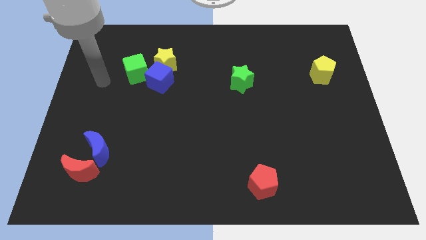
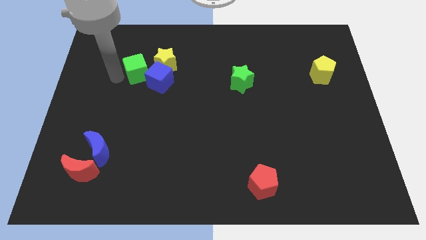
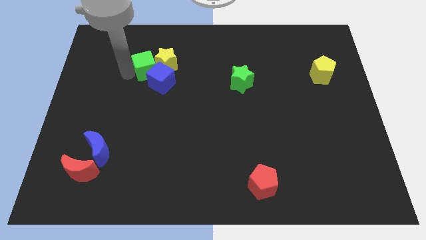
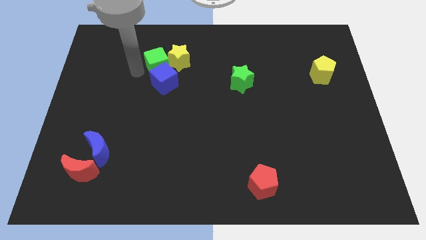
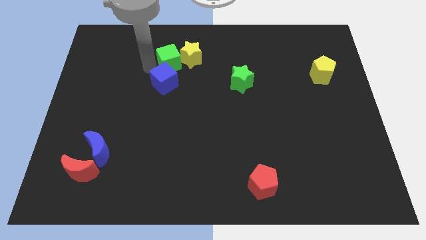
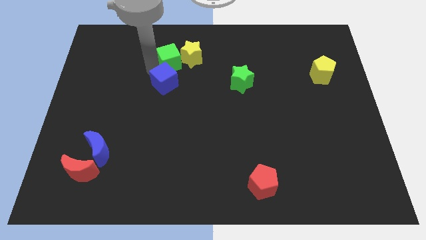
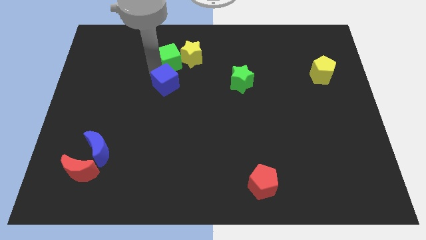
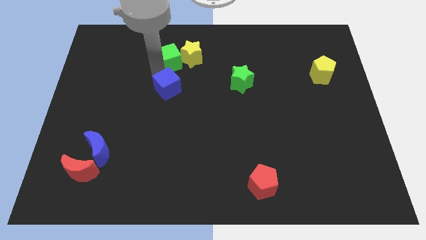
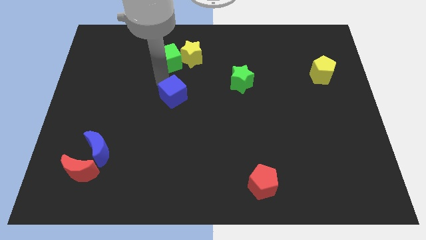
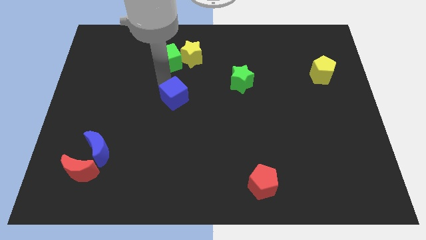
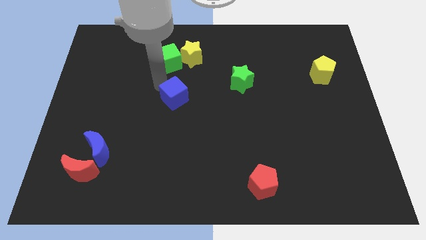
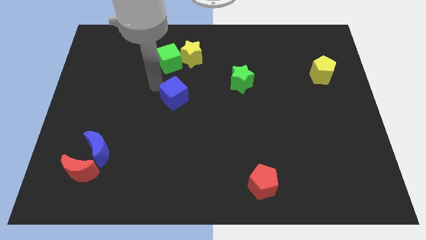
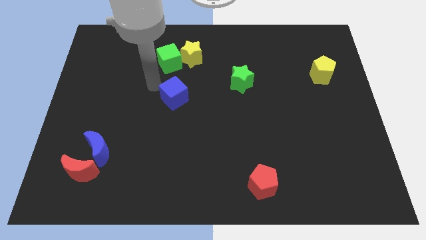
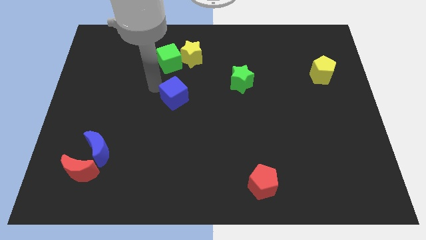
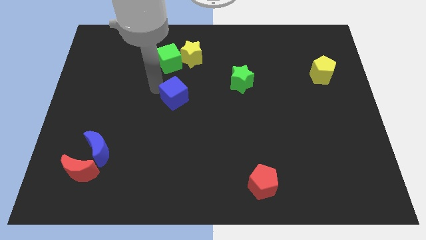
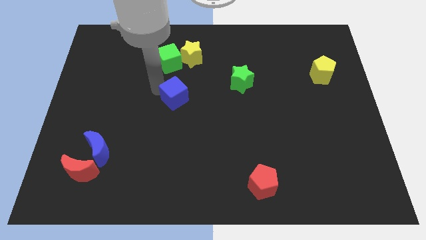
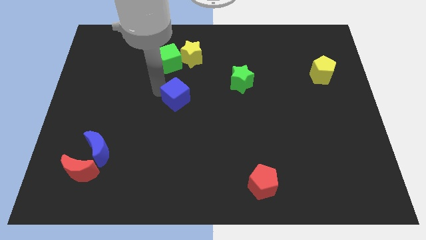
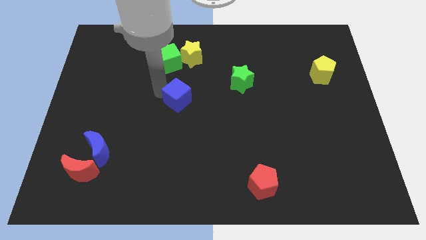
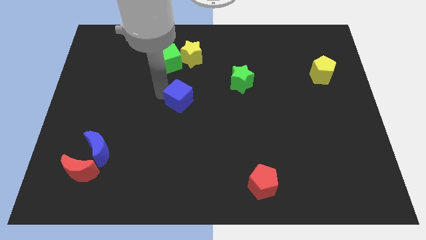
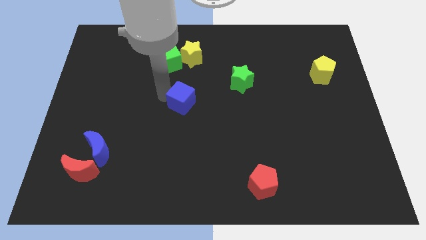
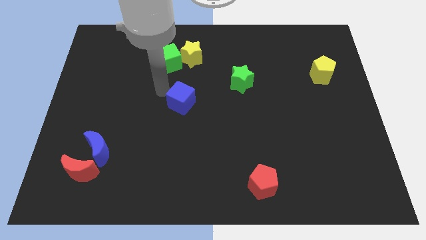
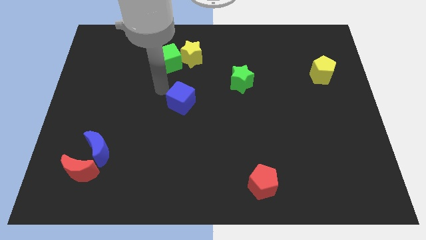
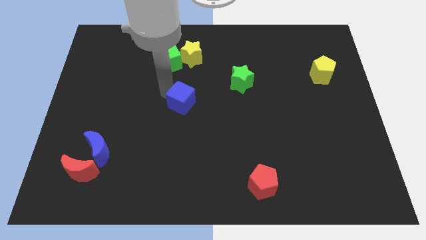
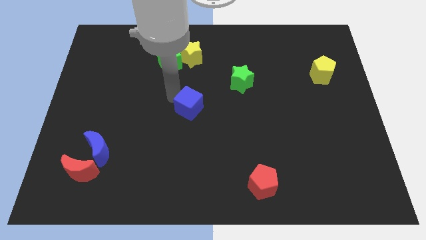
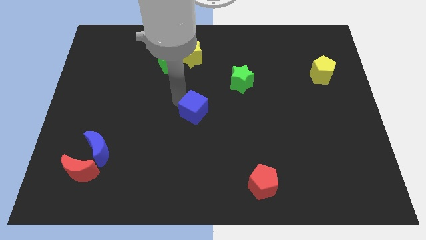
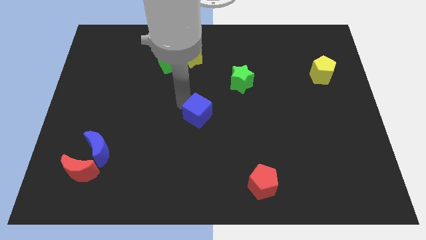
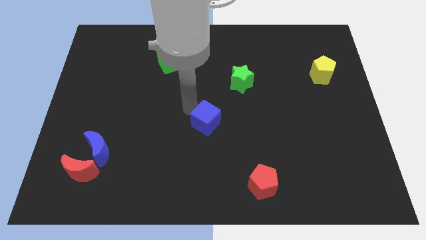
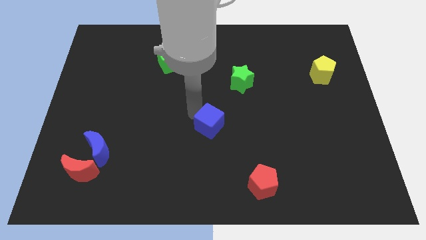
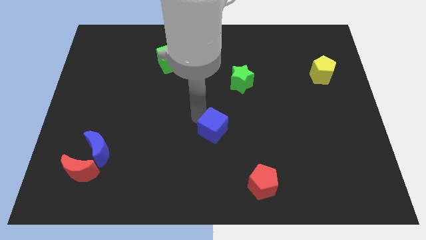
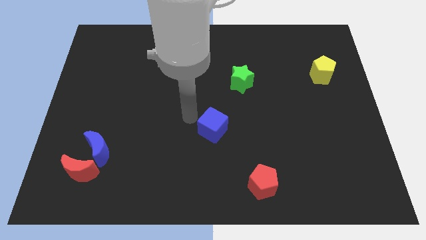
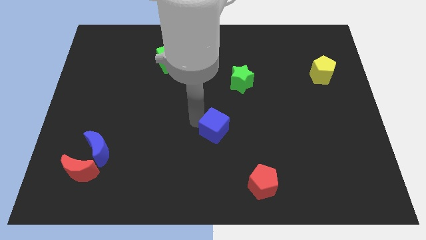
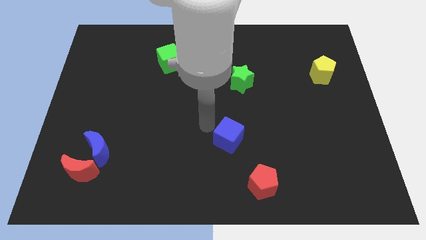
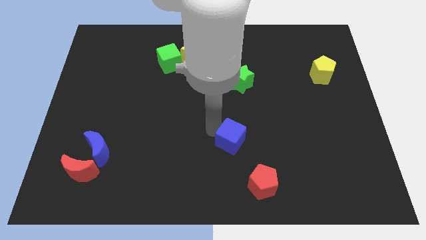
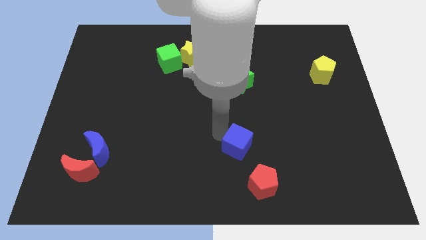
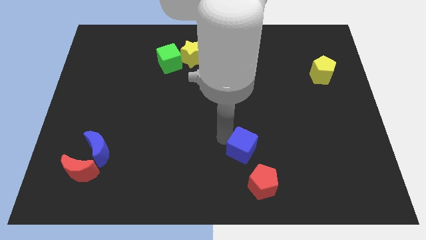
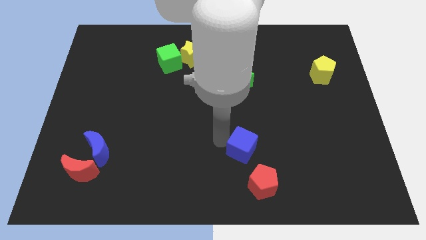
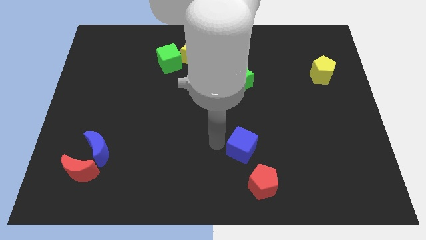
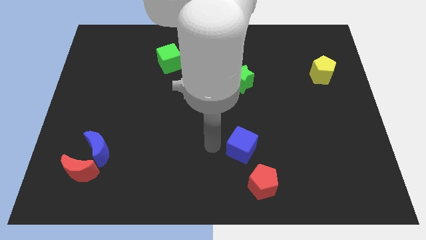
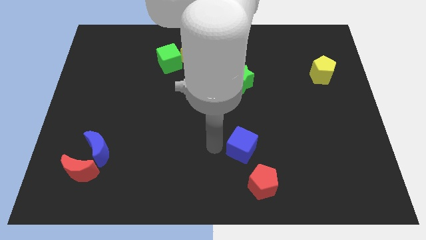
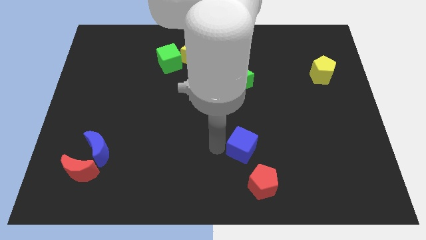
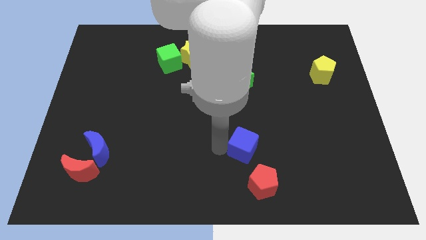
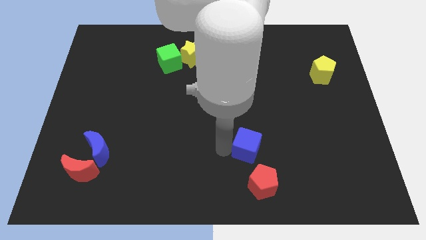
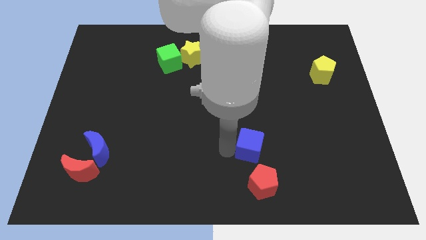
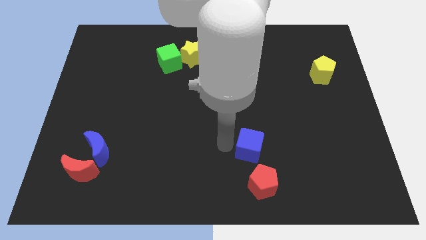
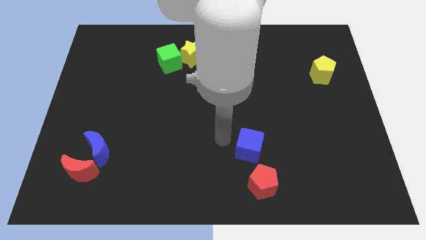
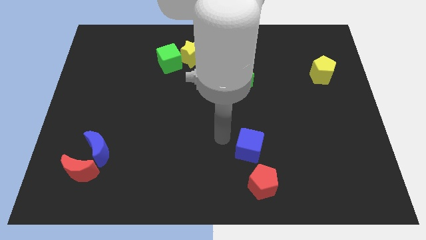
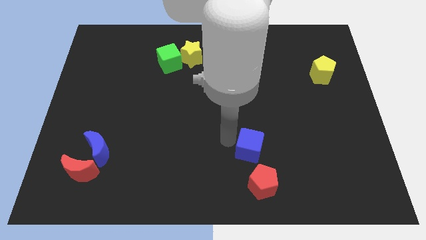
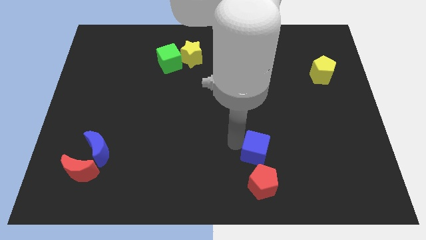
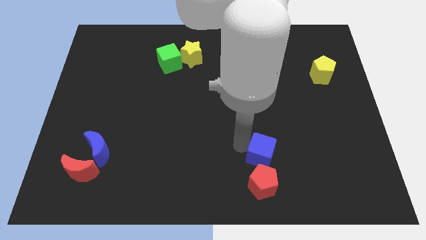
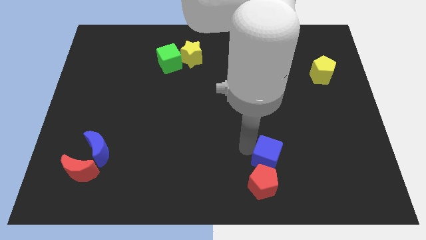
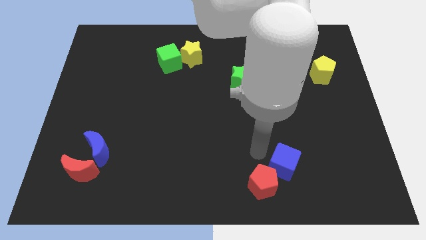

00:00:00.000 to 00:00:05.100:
push the blue cube to the right side of the red pentagon

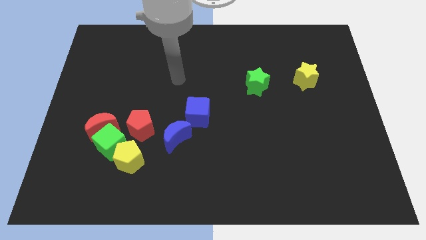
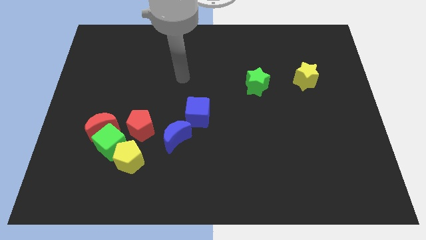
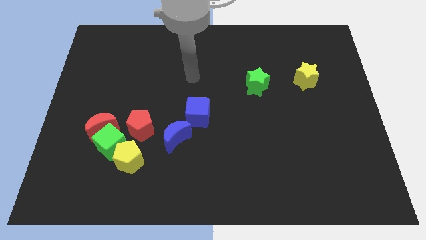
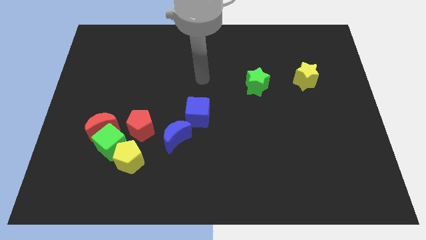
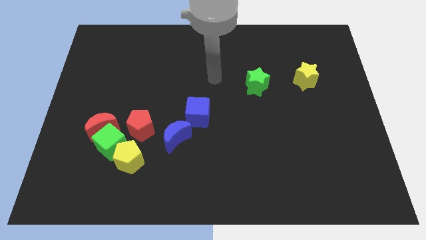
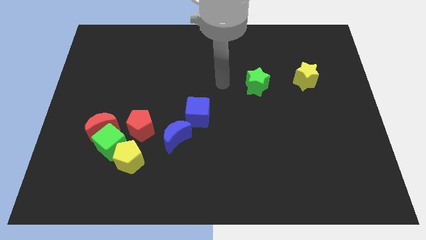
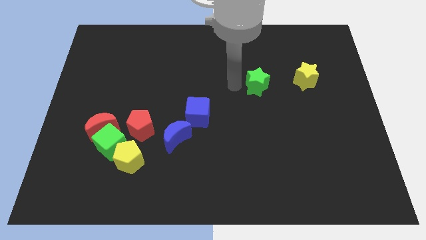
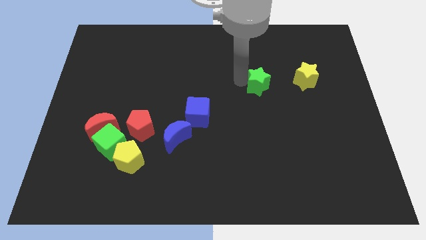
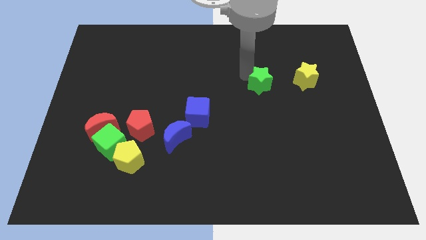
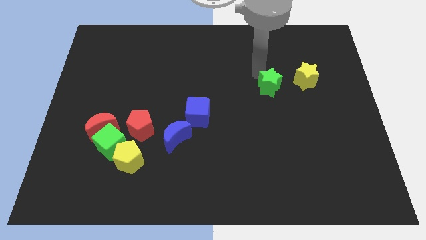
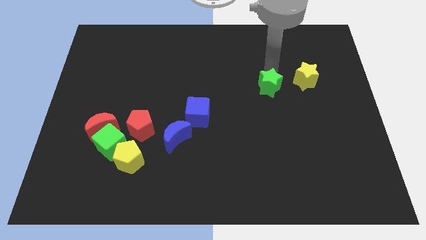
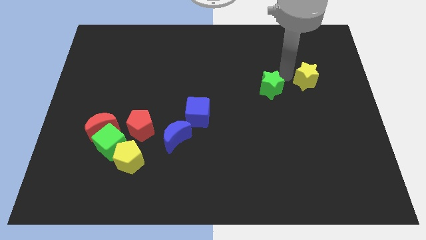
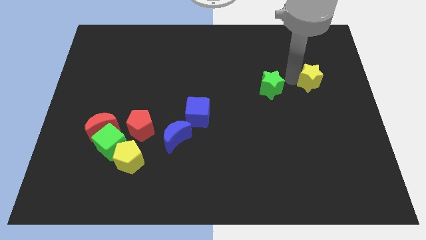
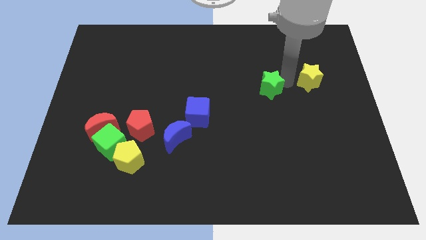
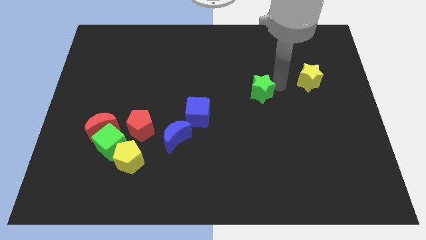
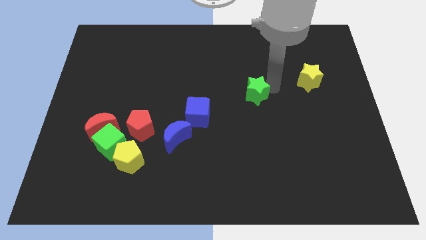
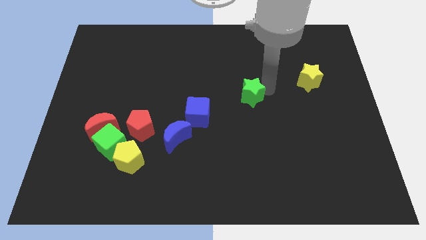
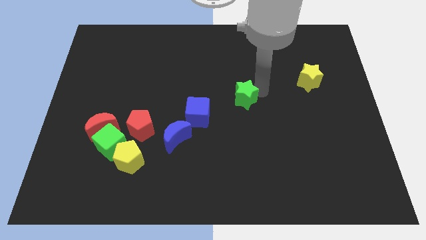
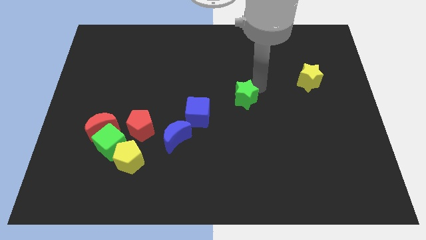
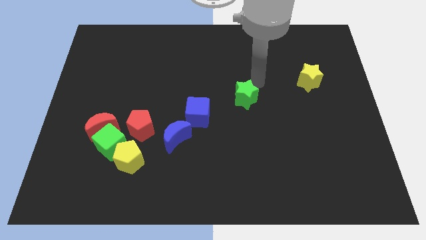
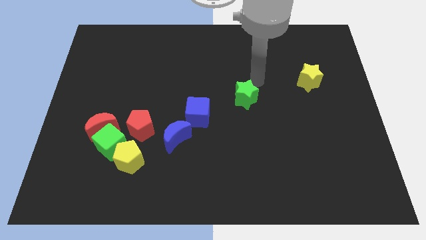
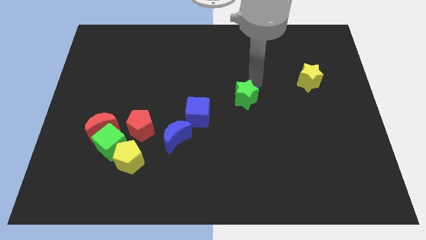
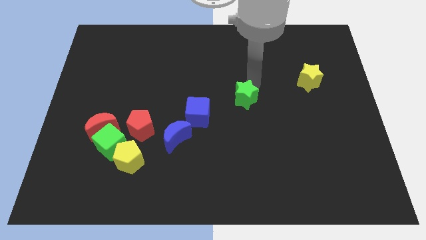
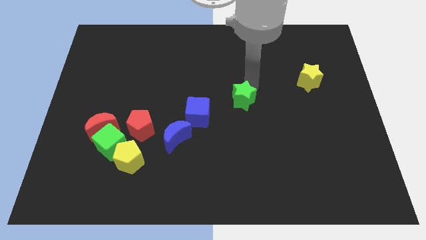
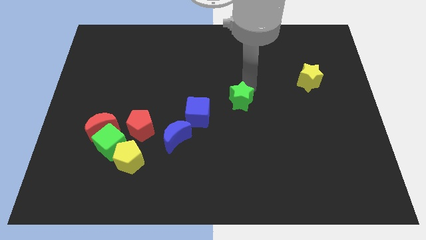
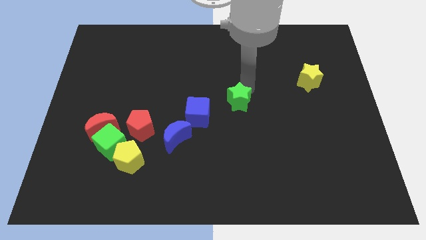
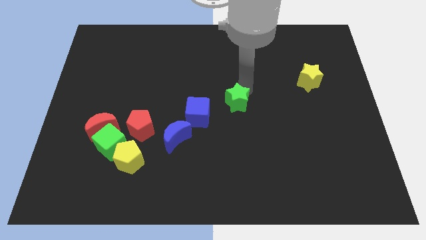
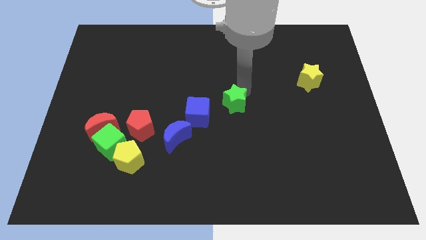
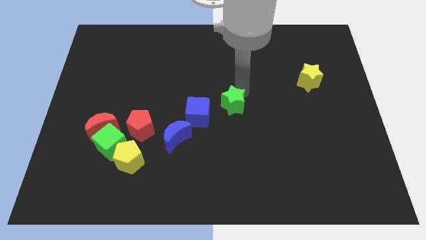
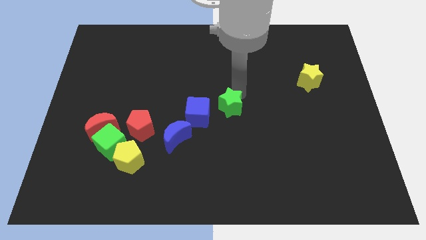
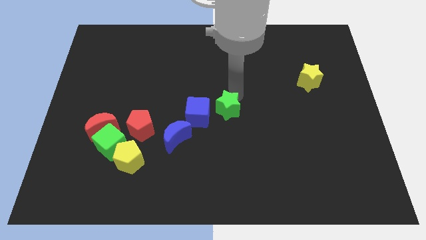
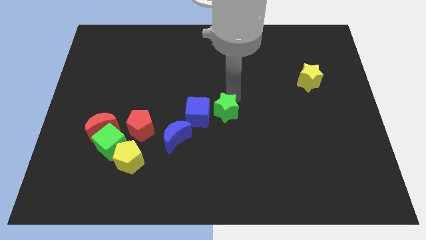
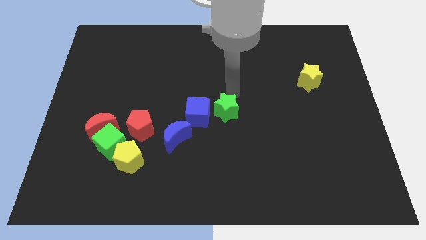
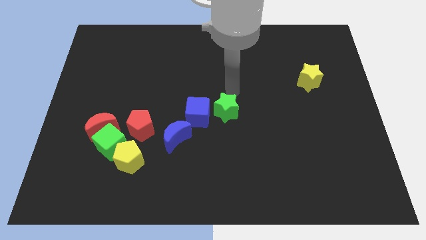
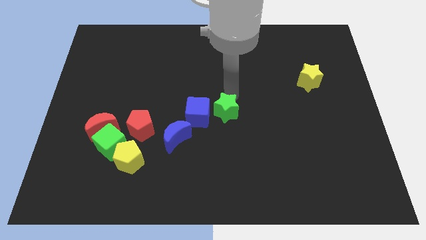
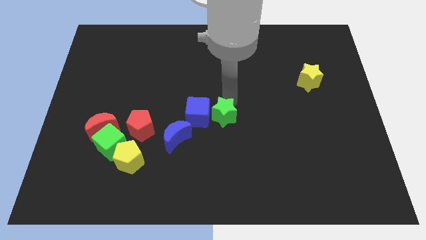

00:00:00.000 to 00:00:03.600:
move the green star to the bottom right side of the blue cube
